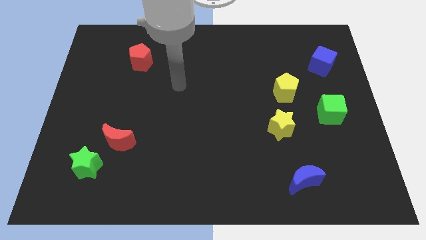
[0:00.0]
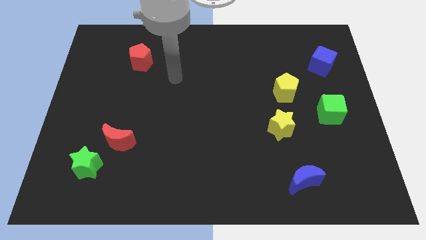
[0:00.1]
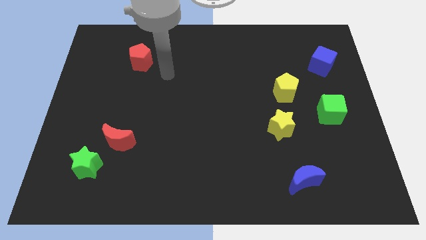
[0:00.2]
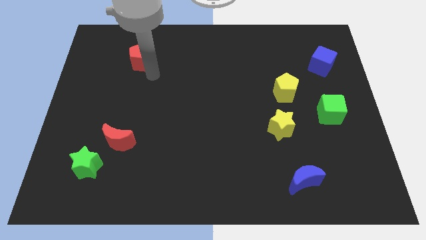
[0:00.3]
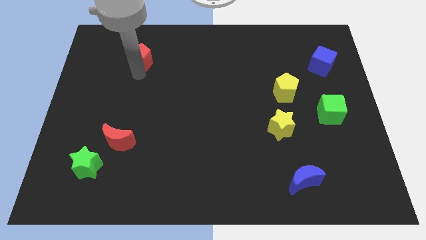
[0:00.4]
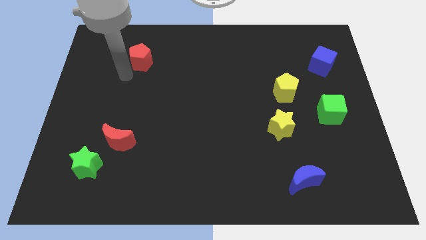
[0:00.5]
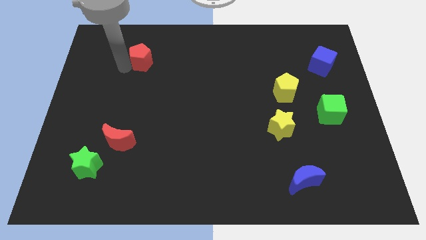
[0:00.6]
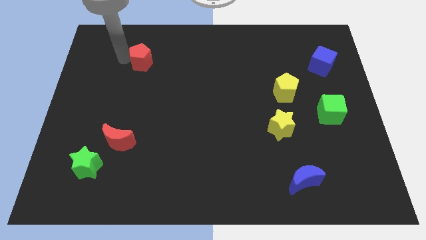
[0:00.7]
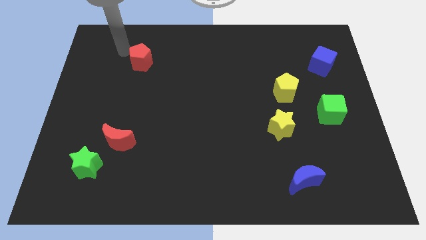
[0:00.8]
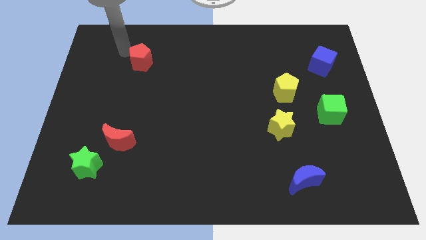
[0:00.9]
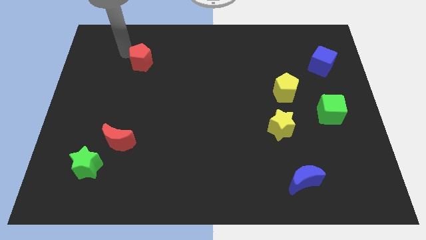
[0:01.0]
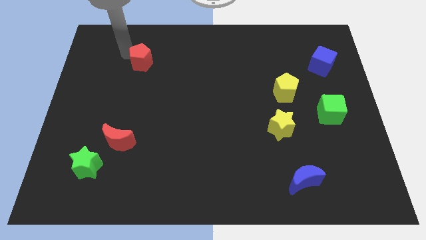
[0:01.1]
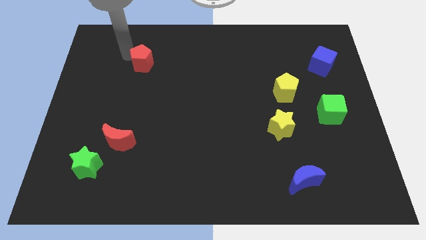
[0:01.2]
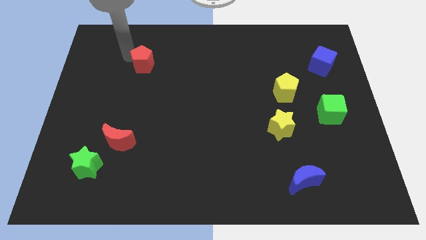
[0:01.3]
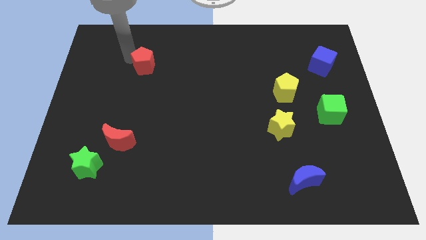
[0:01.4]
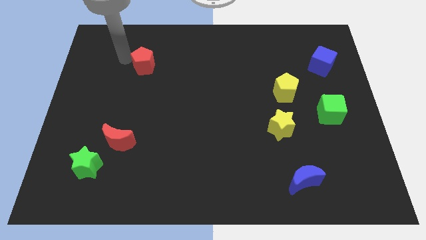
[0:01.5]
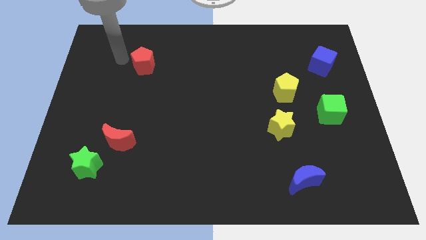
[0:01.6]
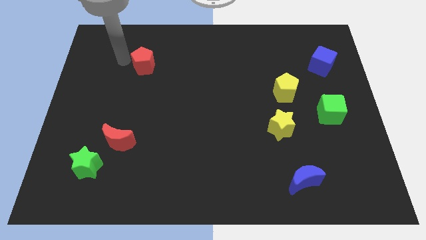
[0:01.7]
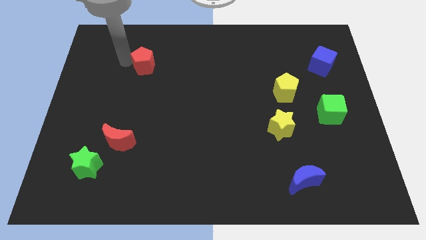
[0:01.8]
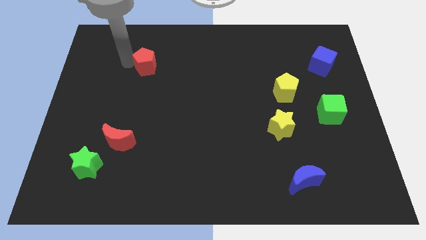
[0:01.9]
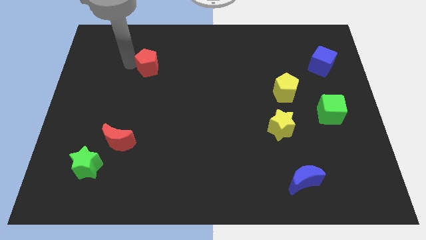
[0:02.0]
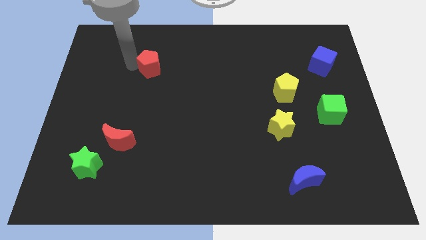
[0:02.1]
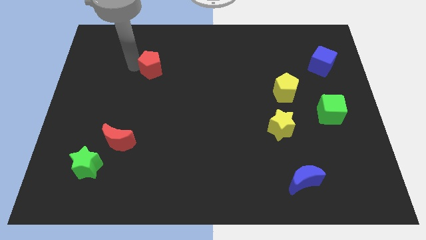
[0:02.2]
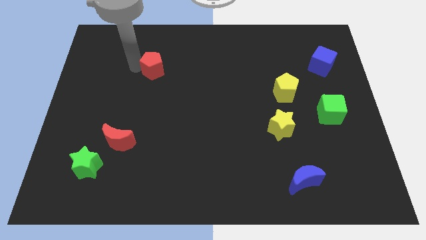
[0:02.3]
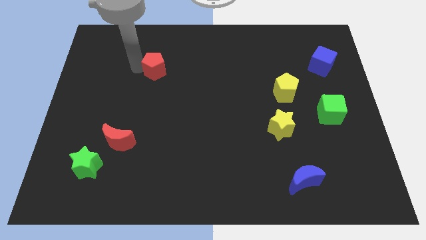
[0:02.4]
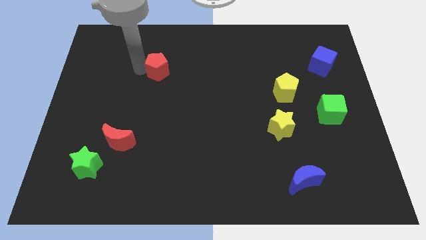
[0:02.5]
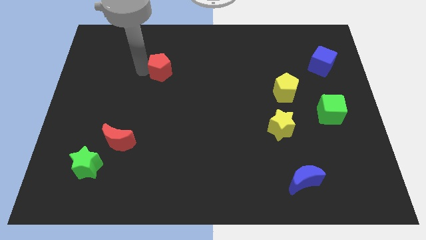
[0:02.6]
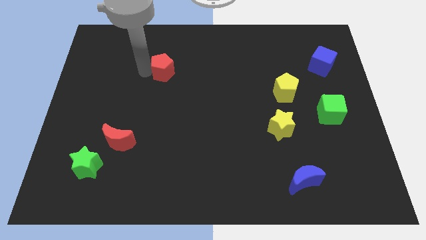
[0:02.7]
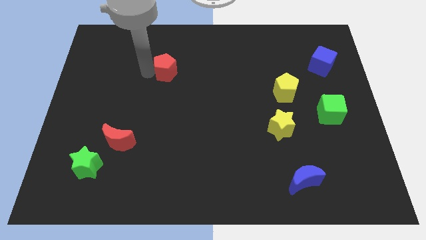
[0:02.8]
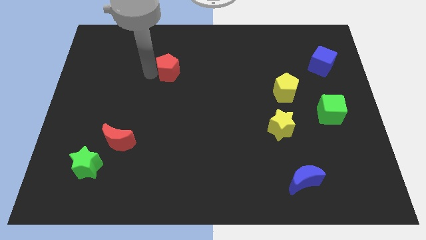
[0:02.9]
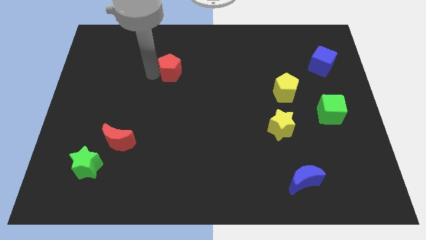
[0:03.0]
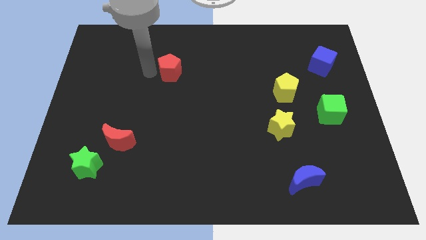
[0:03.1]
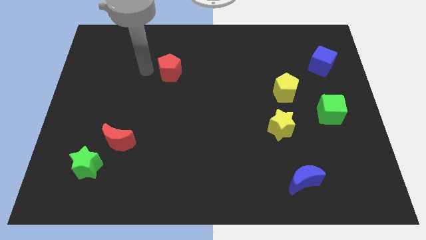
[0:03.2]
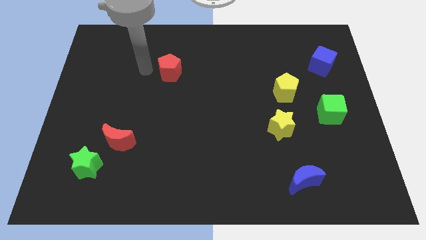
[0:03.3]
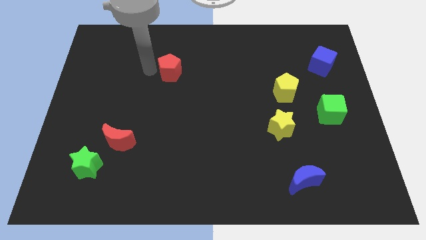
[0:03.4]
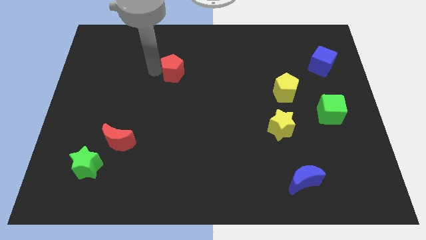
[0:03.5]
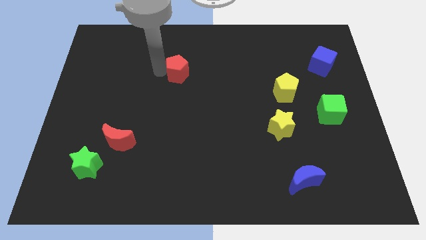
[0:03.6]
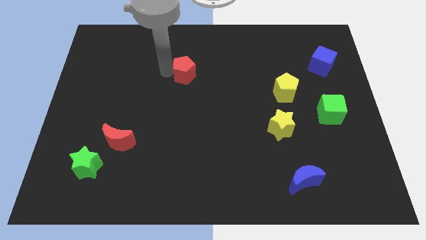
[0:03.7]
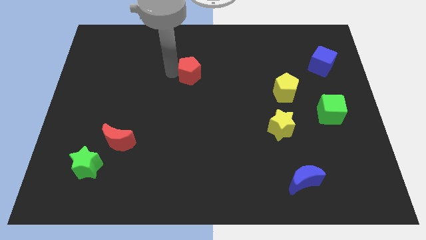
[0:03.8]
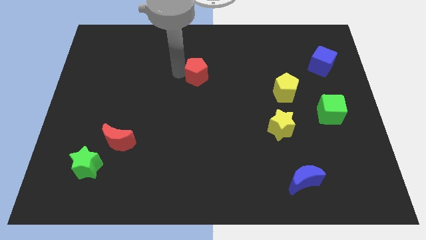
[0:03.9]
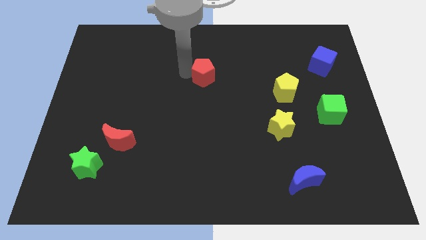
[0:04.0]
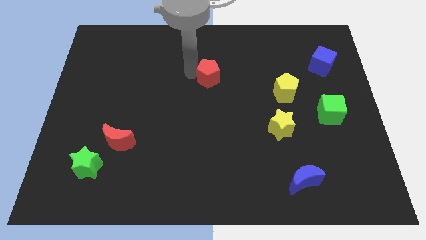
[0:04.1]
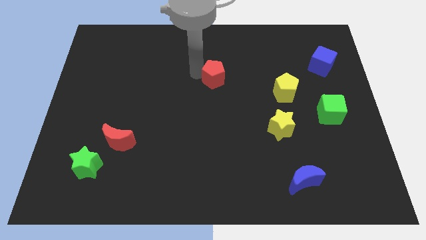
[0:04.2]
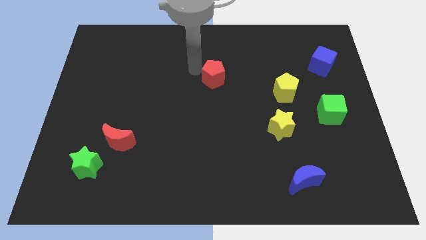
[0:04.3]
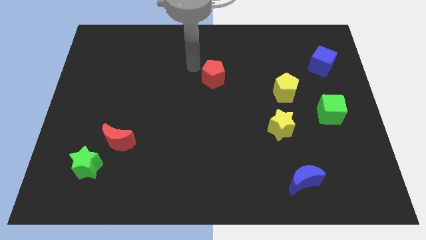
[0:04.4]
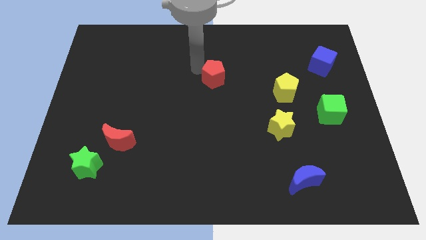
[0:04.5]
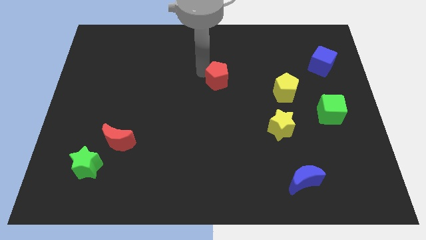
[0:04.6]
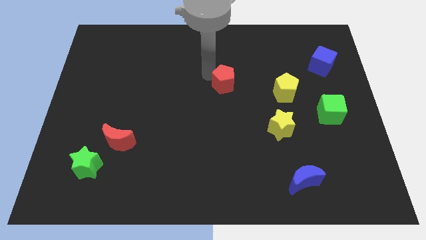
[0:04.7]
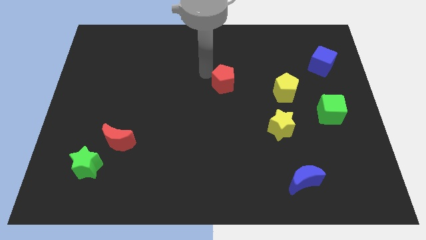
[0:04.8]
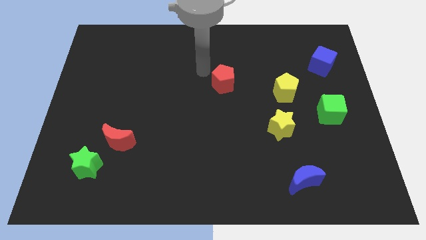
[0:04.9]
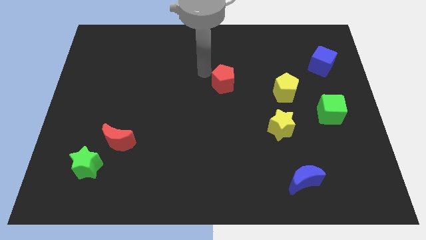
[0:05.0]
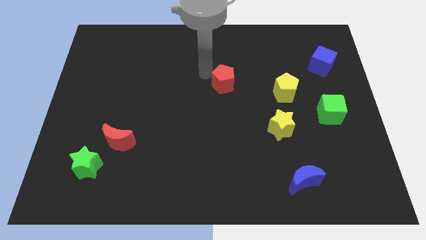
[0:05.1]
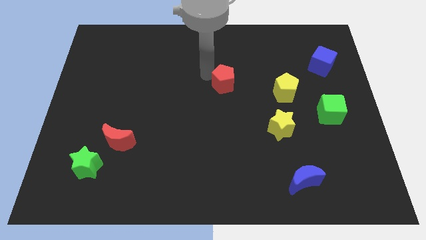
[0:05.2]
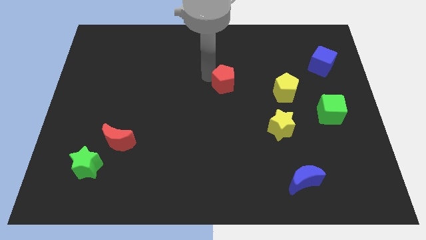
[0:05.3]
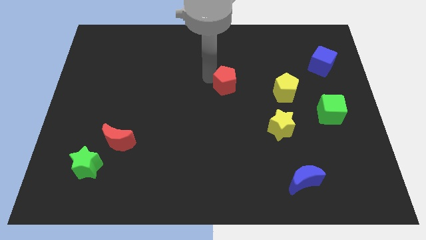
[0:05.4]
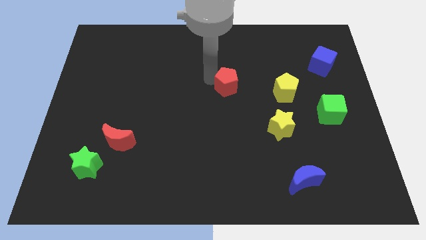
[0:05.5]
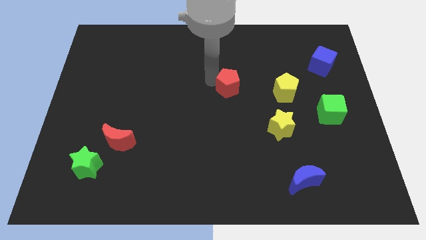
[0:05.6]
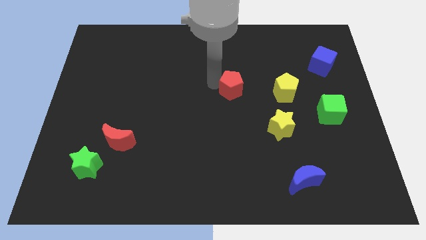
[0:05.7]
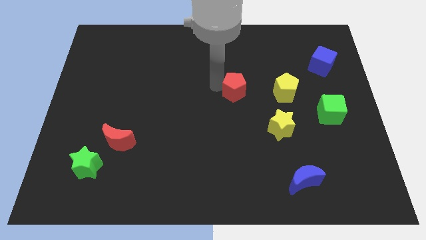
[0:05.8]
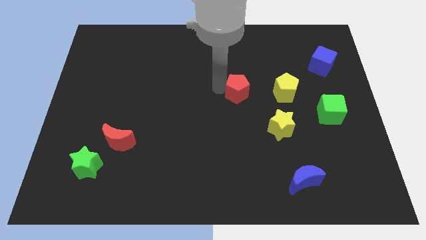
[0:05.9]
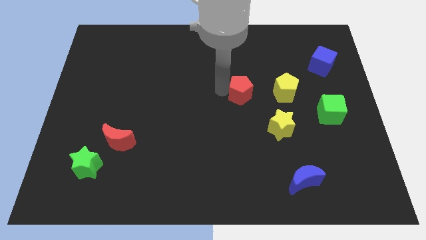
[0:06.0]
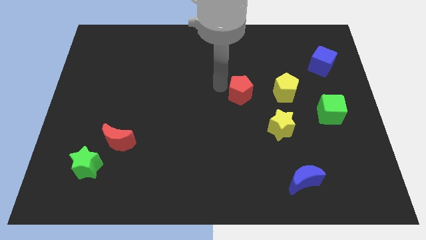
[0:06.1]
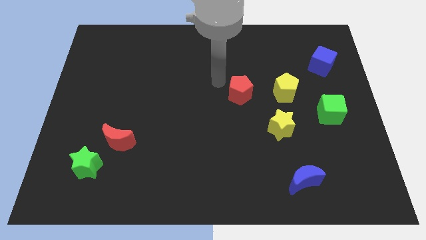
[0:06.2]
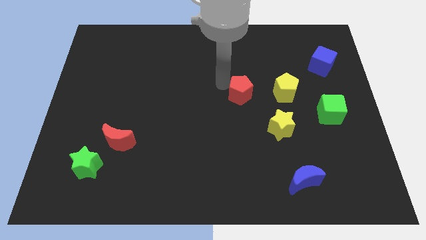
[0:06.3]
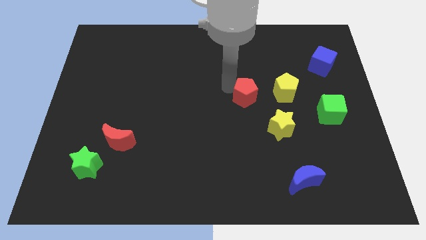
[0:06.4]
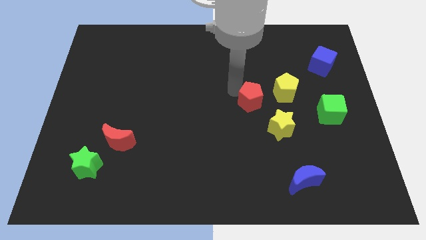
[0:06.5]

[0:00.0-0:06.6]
slide the red pentagon diagonally down and to the left of the yellow pentagon

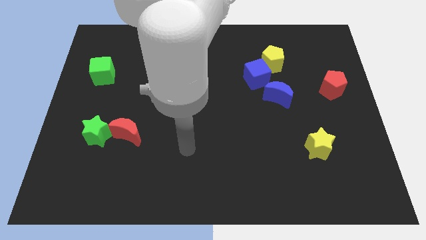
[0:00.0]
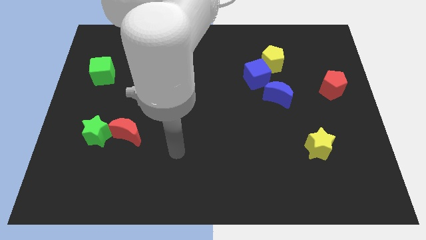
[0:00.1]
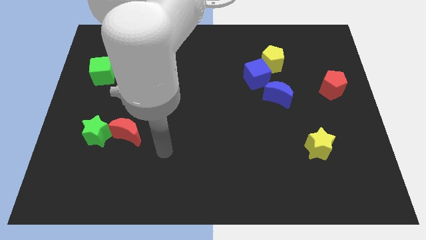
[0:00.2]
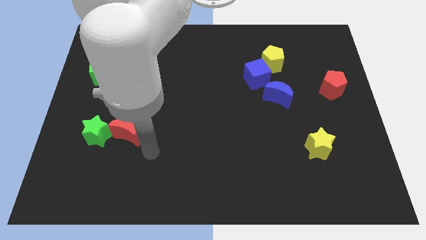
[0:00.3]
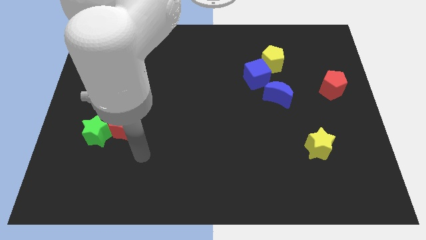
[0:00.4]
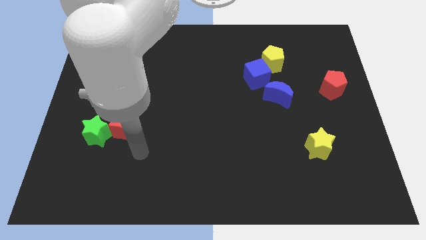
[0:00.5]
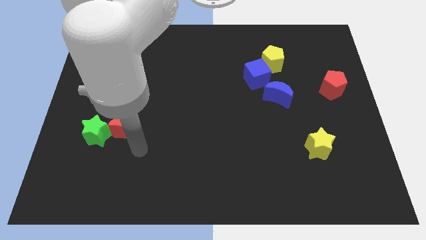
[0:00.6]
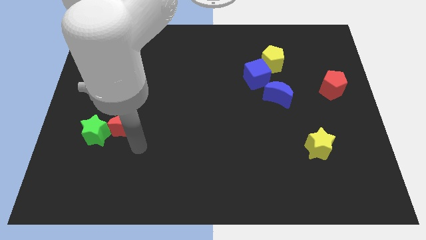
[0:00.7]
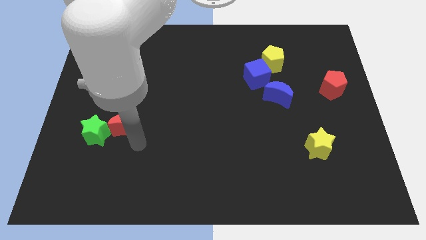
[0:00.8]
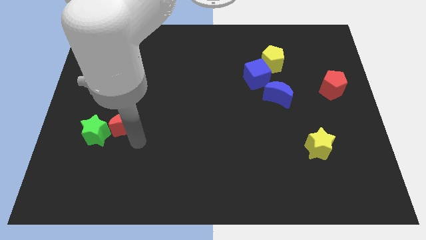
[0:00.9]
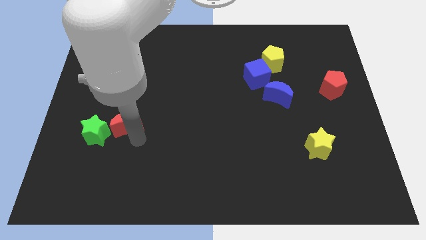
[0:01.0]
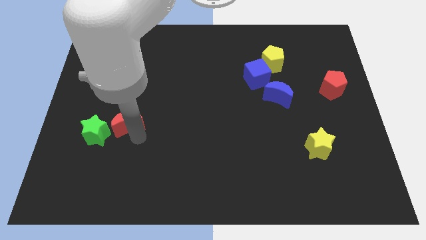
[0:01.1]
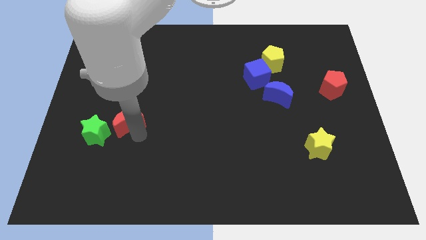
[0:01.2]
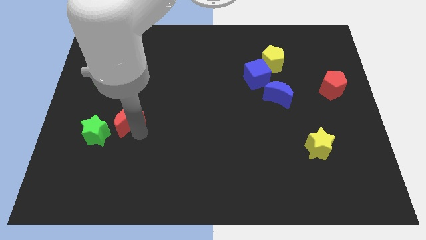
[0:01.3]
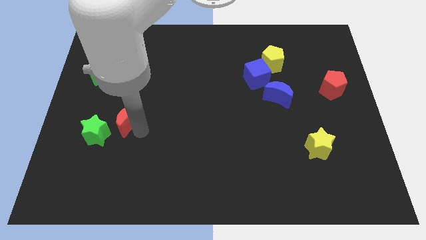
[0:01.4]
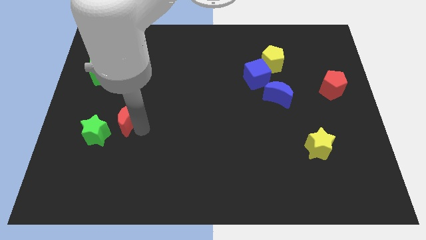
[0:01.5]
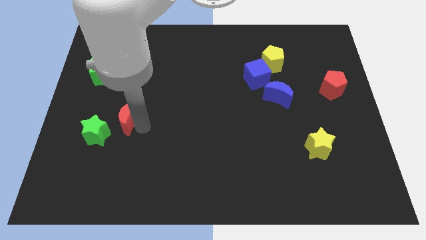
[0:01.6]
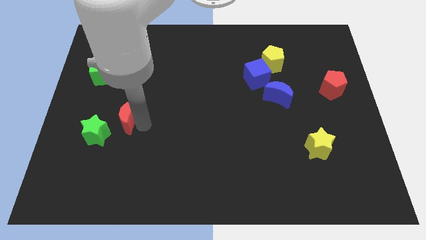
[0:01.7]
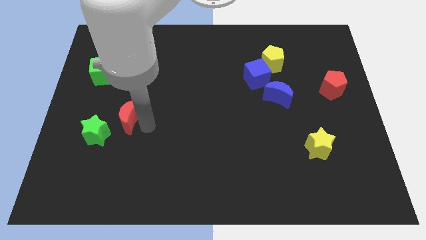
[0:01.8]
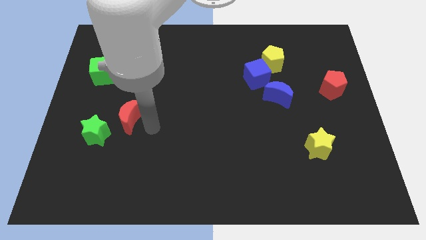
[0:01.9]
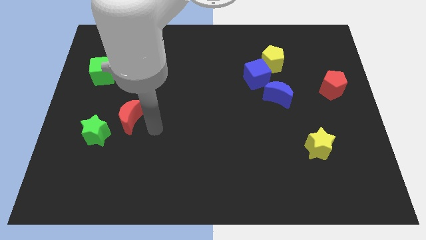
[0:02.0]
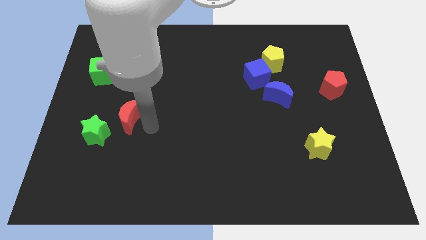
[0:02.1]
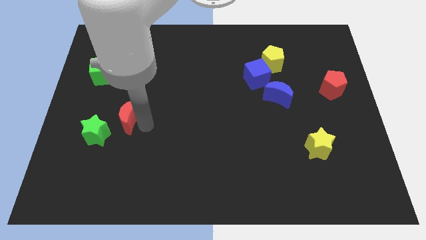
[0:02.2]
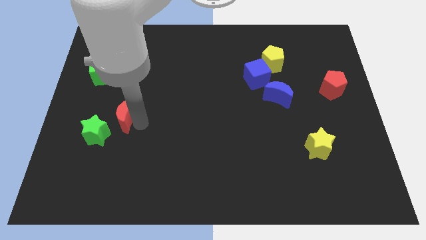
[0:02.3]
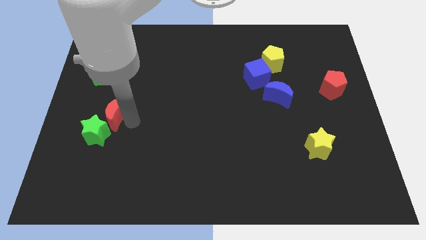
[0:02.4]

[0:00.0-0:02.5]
put the red moon to the top of the green star
